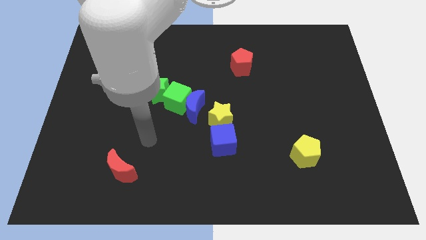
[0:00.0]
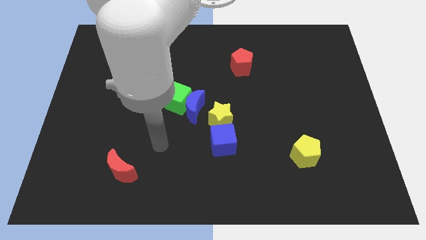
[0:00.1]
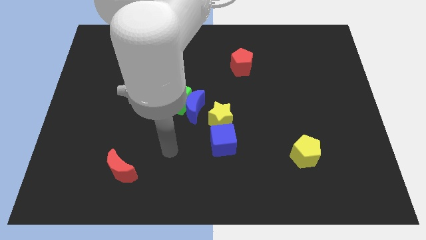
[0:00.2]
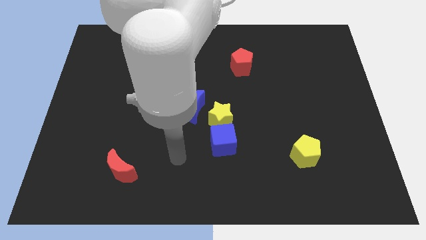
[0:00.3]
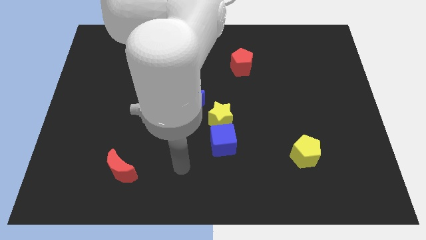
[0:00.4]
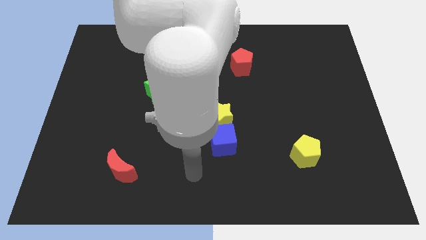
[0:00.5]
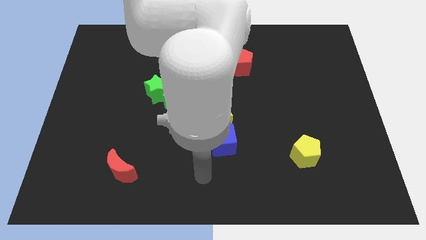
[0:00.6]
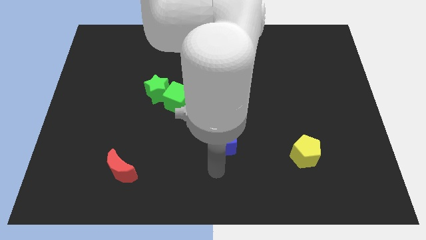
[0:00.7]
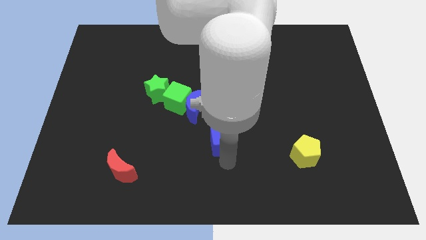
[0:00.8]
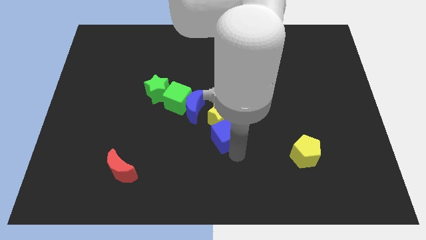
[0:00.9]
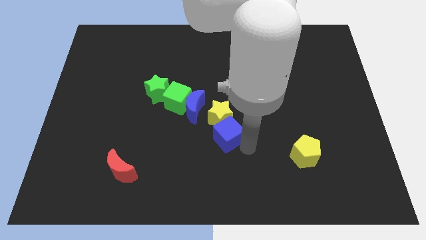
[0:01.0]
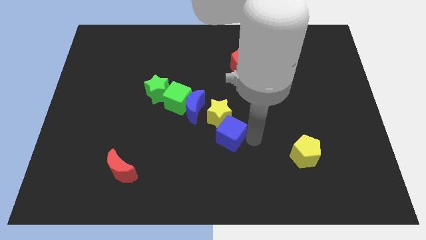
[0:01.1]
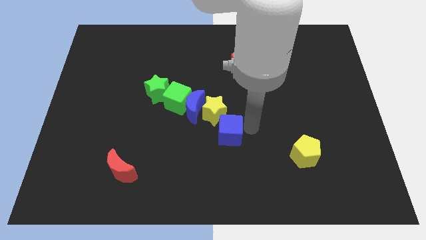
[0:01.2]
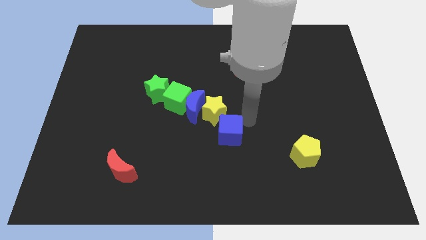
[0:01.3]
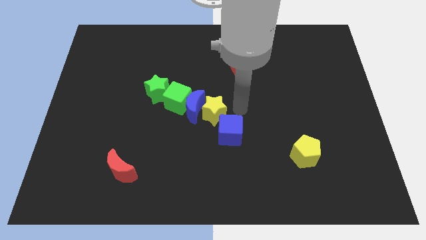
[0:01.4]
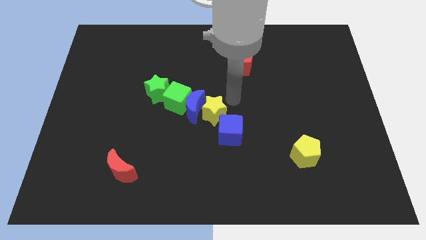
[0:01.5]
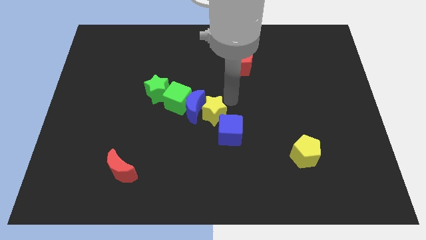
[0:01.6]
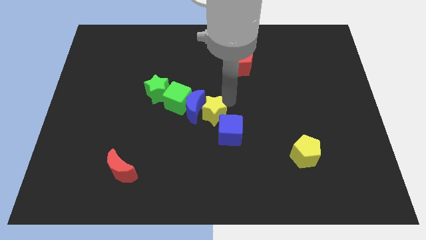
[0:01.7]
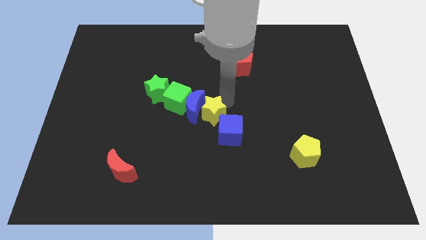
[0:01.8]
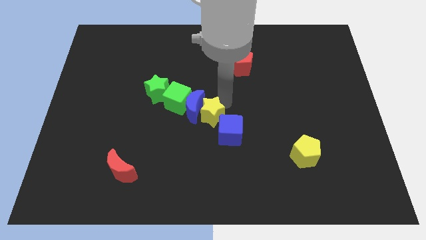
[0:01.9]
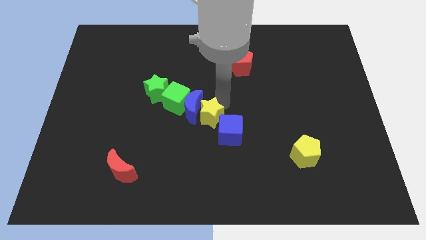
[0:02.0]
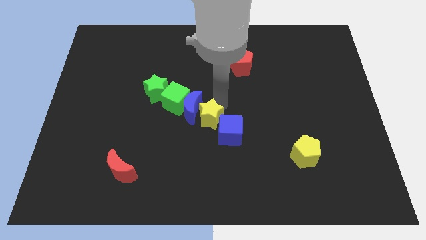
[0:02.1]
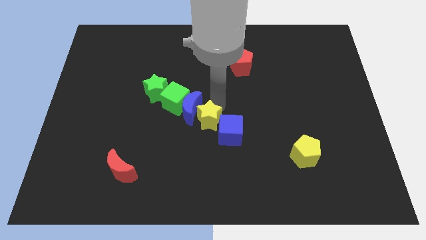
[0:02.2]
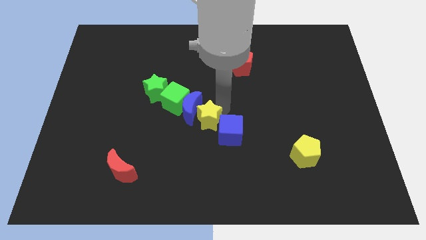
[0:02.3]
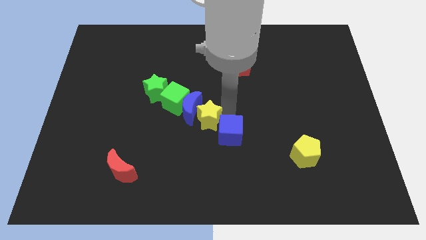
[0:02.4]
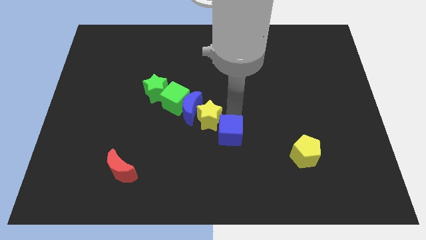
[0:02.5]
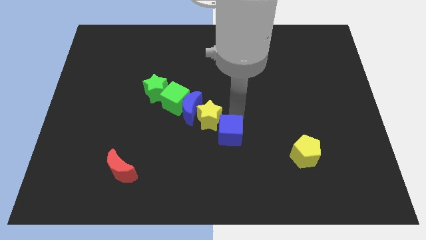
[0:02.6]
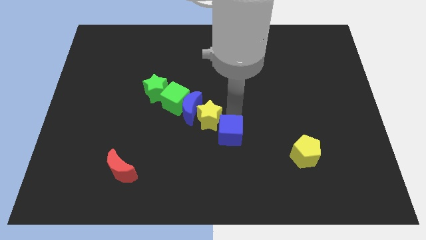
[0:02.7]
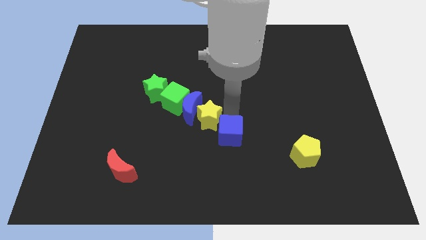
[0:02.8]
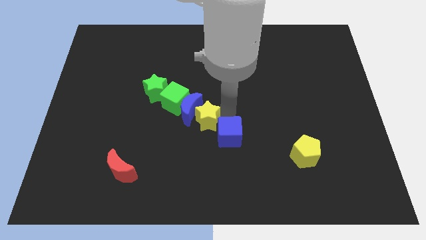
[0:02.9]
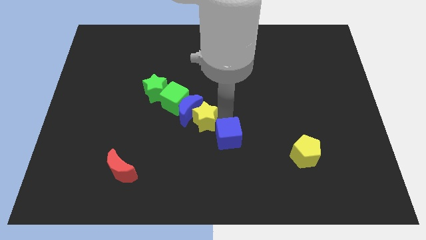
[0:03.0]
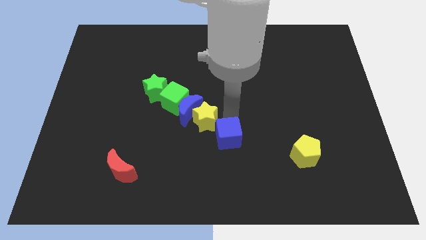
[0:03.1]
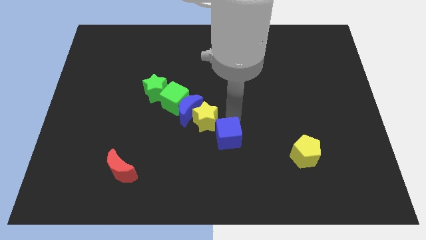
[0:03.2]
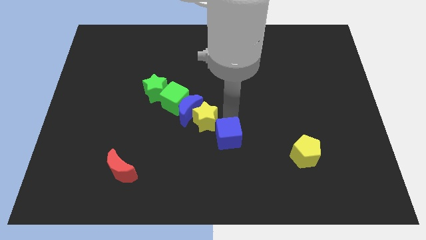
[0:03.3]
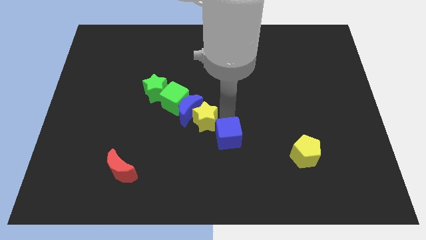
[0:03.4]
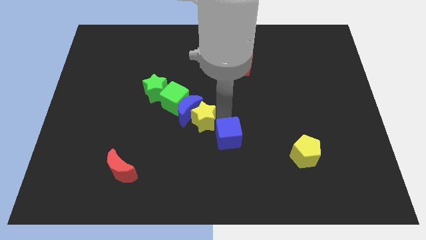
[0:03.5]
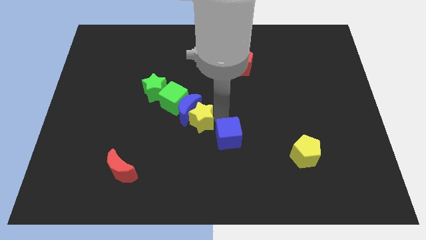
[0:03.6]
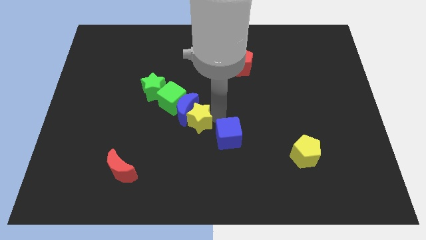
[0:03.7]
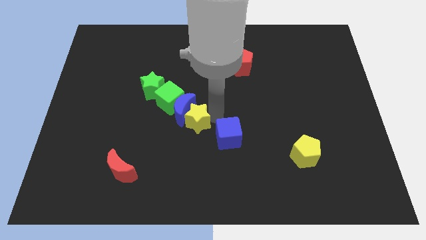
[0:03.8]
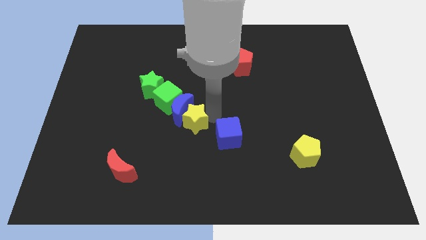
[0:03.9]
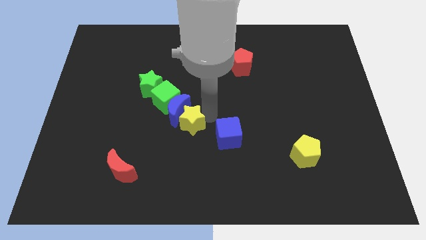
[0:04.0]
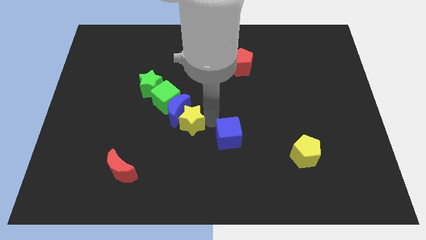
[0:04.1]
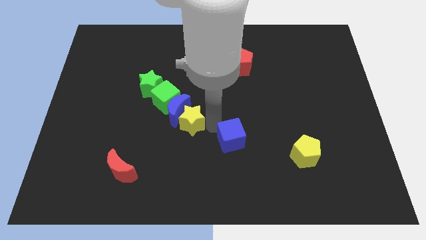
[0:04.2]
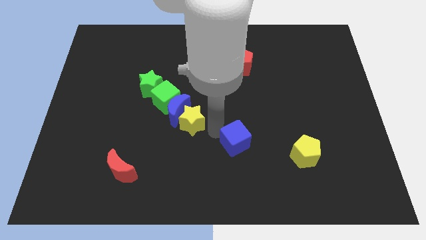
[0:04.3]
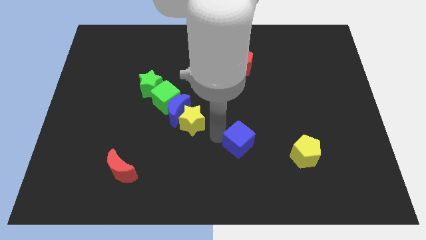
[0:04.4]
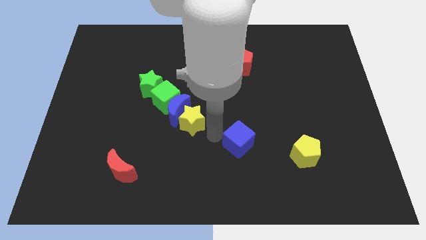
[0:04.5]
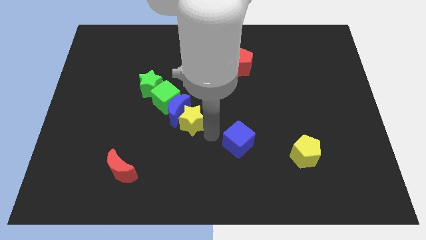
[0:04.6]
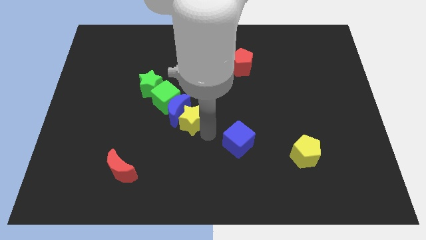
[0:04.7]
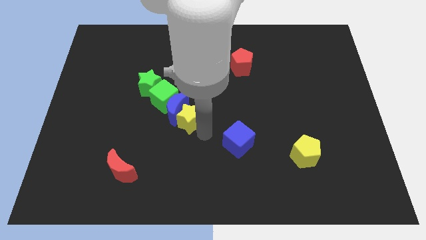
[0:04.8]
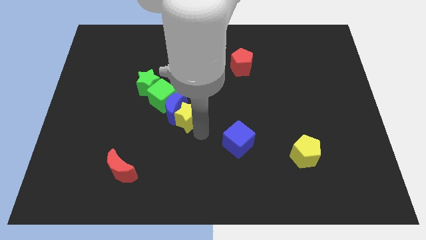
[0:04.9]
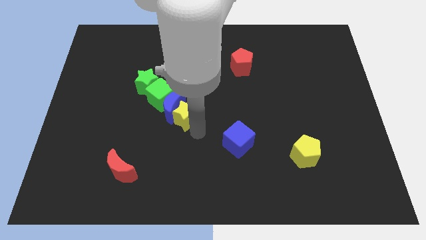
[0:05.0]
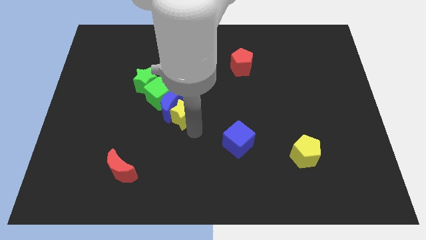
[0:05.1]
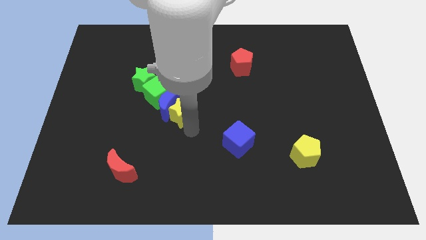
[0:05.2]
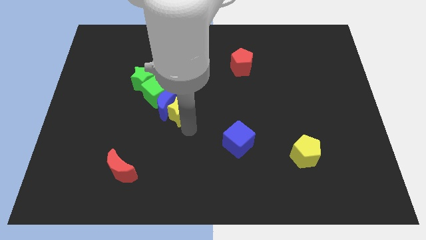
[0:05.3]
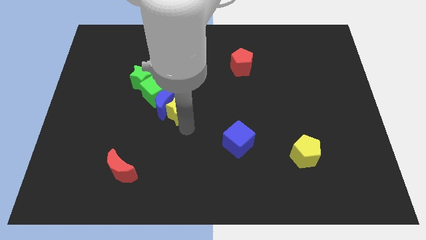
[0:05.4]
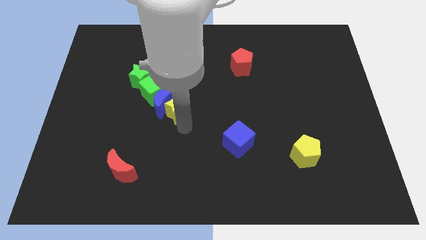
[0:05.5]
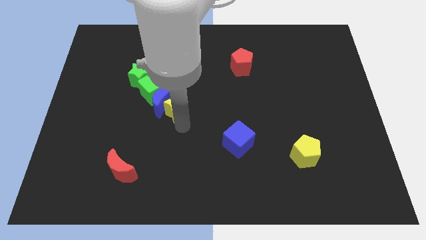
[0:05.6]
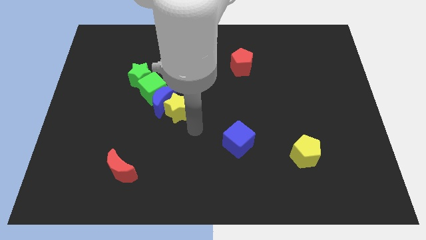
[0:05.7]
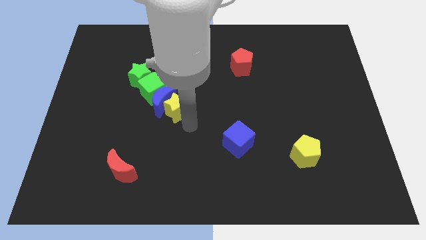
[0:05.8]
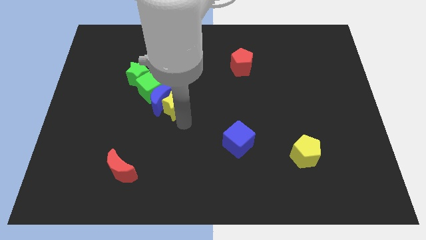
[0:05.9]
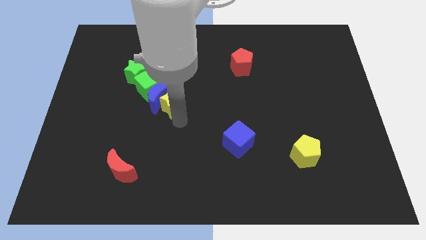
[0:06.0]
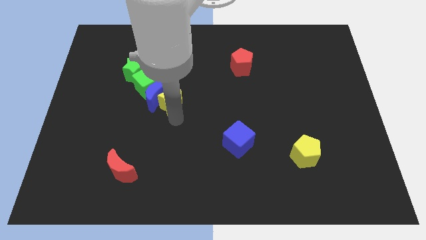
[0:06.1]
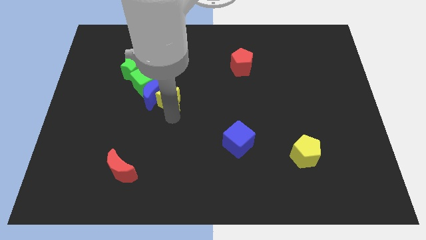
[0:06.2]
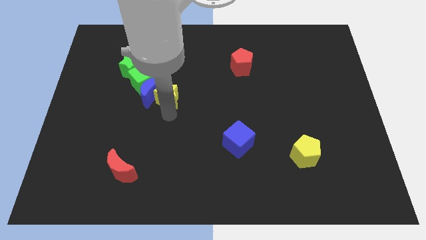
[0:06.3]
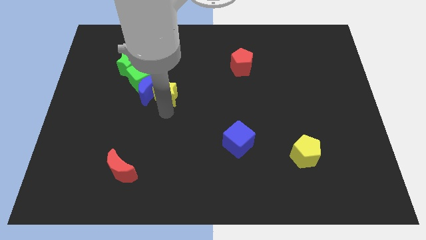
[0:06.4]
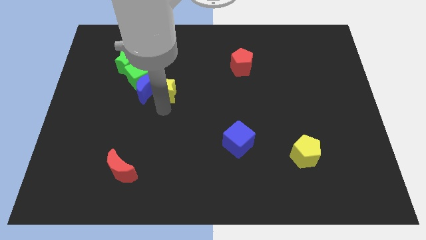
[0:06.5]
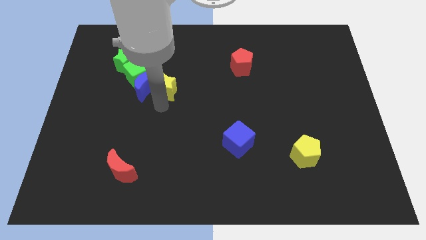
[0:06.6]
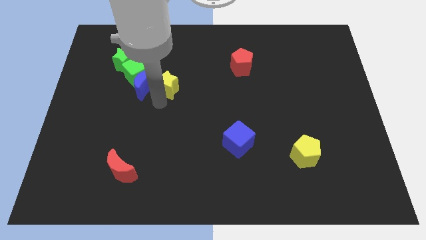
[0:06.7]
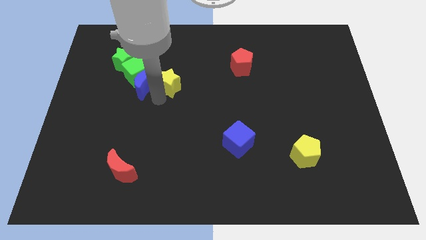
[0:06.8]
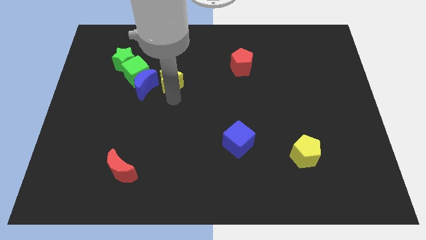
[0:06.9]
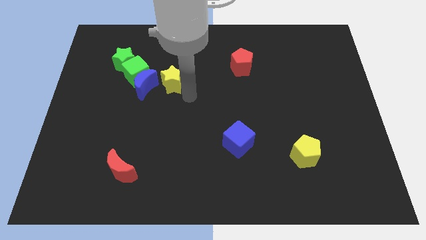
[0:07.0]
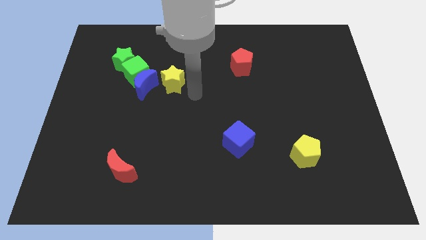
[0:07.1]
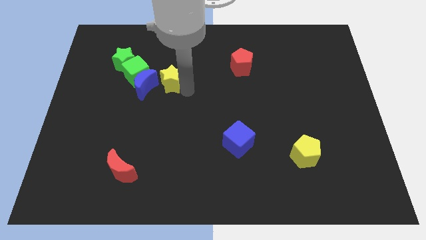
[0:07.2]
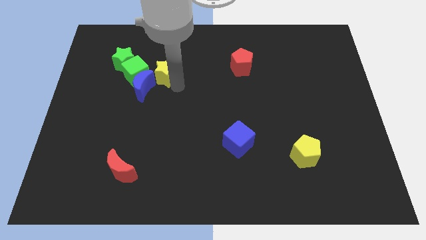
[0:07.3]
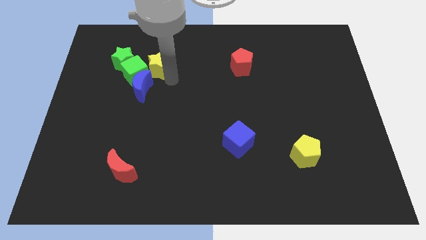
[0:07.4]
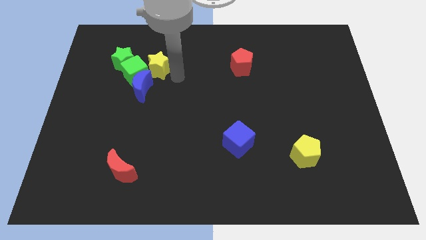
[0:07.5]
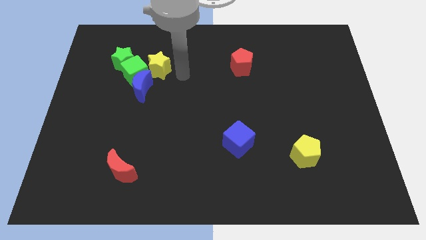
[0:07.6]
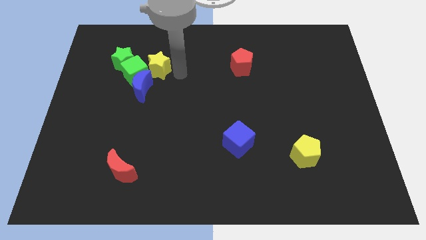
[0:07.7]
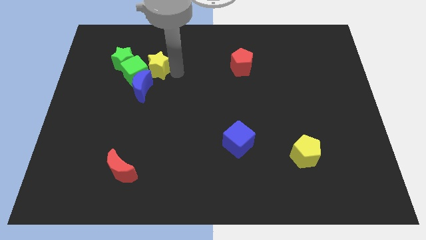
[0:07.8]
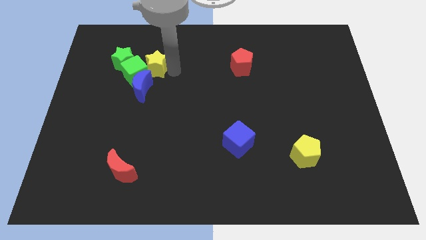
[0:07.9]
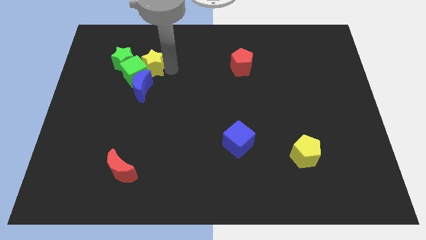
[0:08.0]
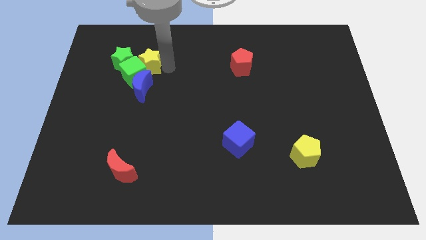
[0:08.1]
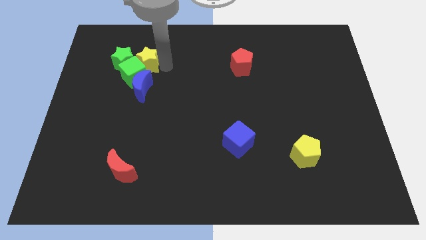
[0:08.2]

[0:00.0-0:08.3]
push the yellow star close to the green star
